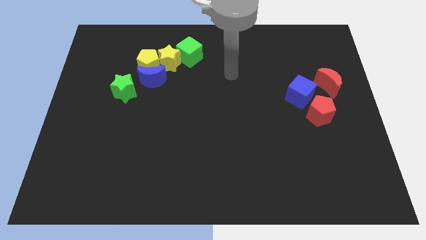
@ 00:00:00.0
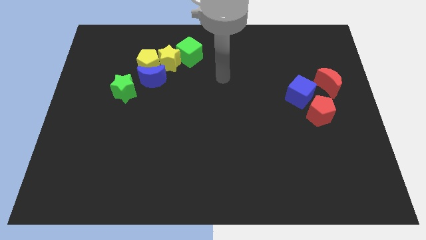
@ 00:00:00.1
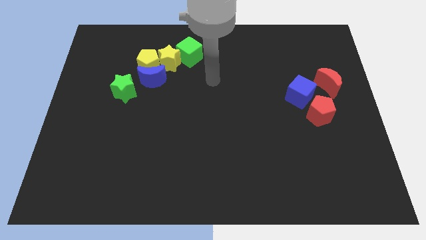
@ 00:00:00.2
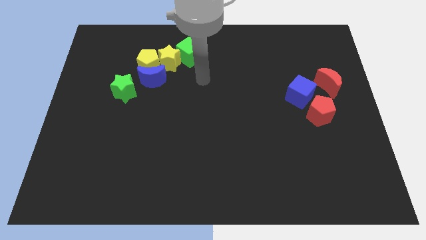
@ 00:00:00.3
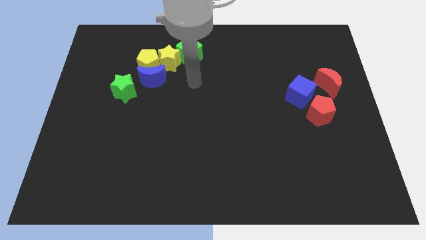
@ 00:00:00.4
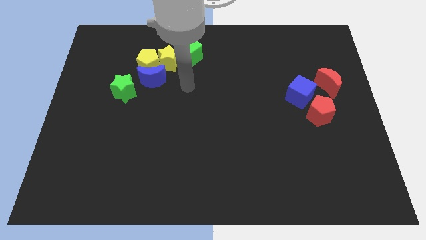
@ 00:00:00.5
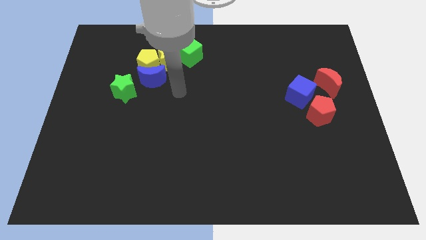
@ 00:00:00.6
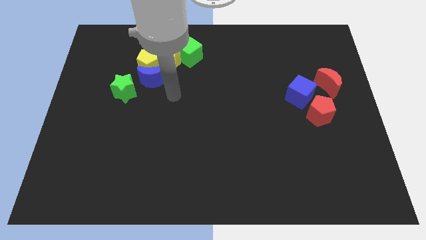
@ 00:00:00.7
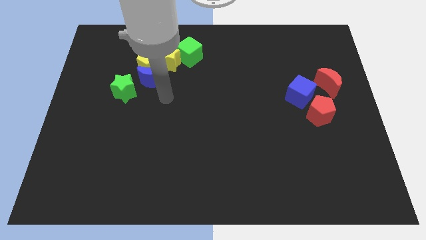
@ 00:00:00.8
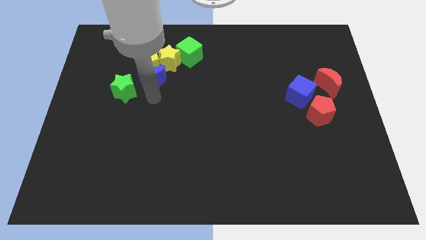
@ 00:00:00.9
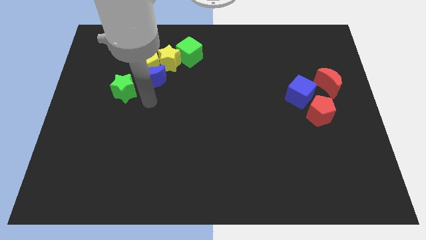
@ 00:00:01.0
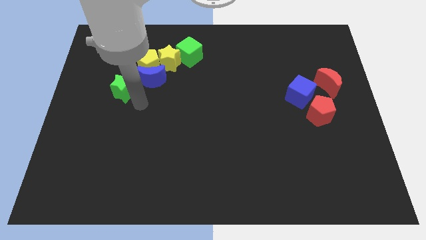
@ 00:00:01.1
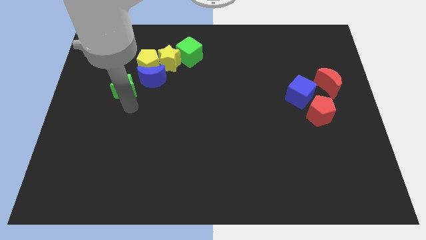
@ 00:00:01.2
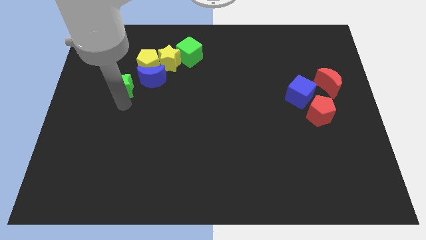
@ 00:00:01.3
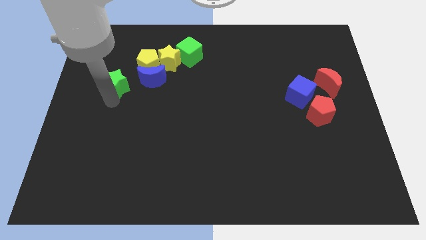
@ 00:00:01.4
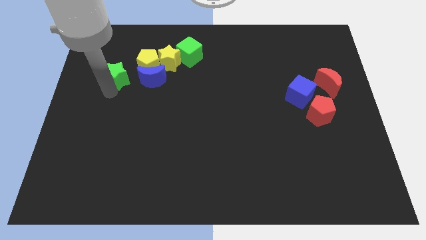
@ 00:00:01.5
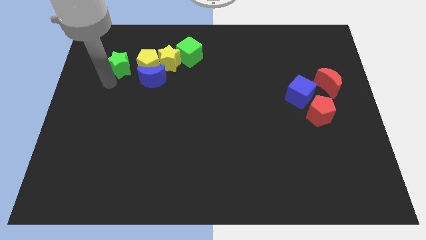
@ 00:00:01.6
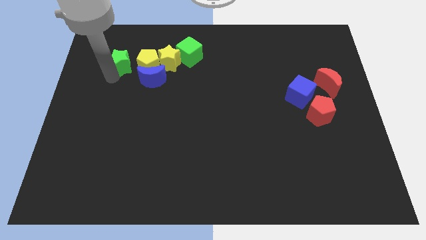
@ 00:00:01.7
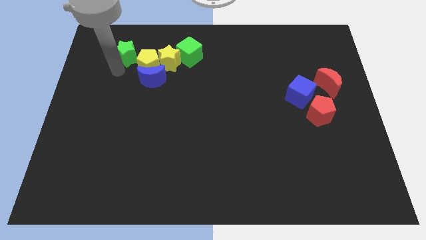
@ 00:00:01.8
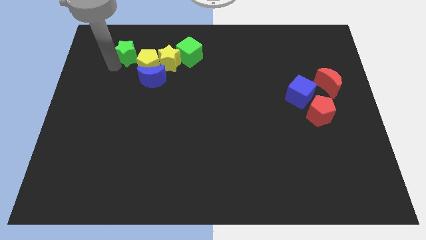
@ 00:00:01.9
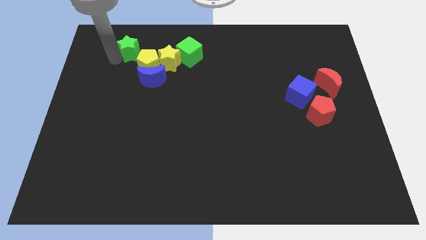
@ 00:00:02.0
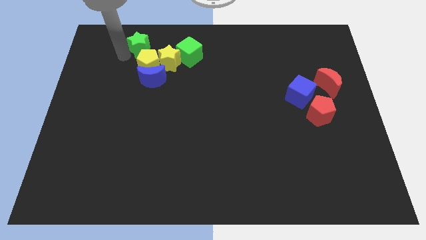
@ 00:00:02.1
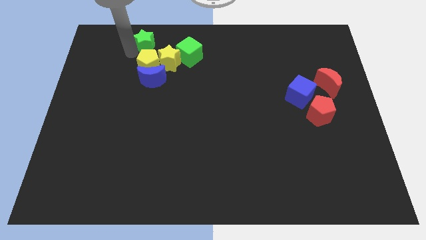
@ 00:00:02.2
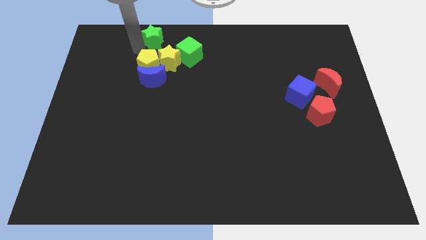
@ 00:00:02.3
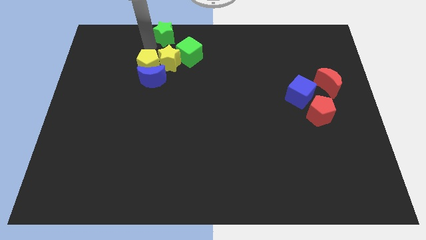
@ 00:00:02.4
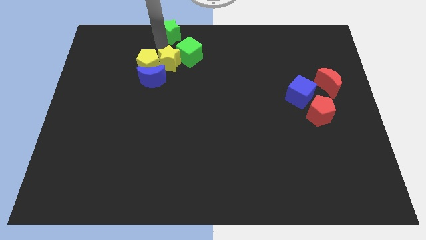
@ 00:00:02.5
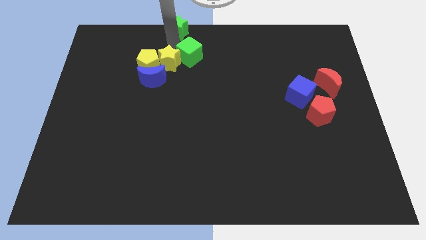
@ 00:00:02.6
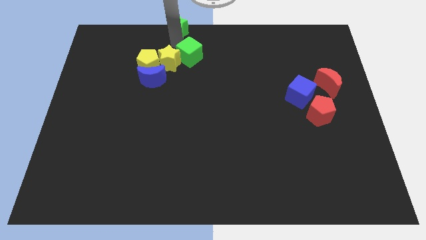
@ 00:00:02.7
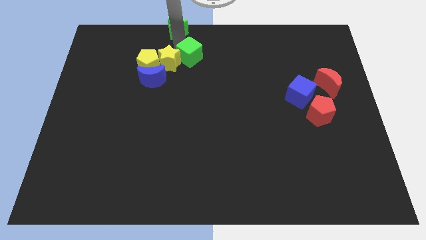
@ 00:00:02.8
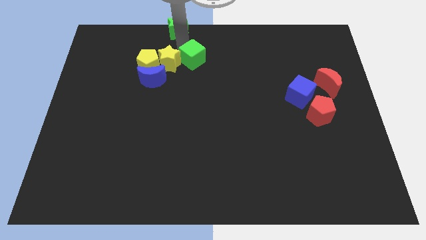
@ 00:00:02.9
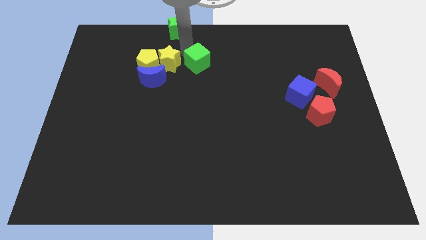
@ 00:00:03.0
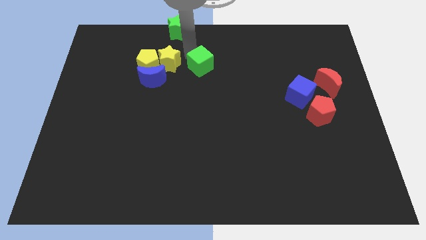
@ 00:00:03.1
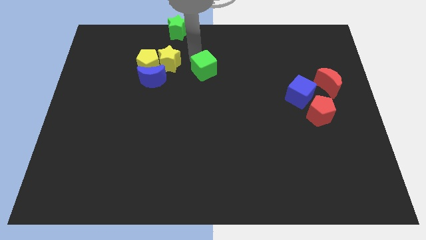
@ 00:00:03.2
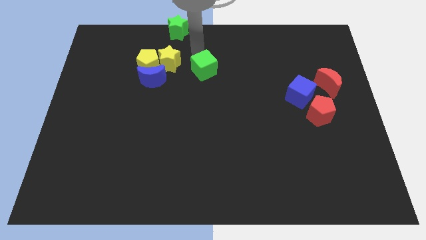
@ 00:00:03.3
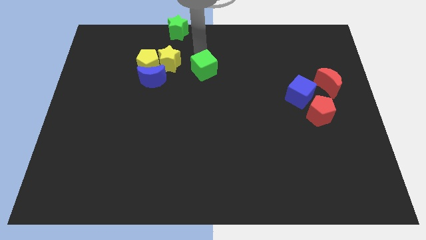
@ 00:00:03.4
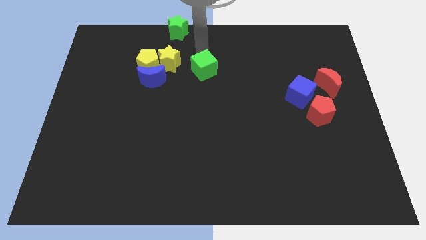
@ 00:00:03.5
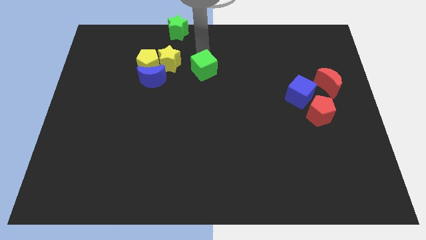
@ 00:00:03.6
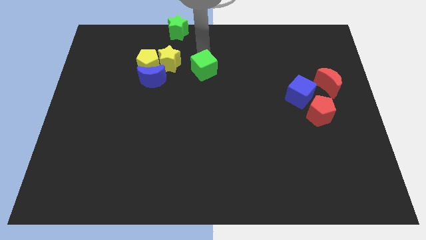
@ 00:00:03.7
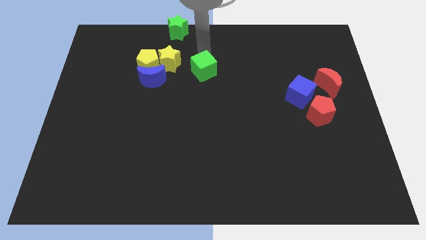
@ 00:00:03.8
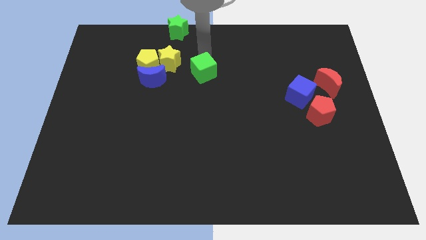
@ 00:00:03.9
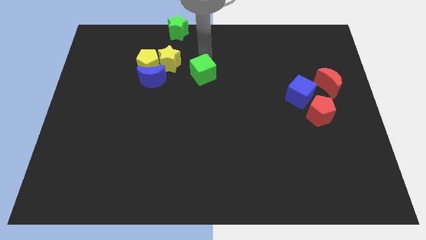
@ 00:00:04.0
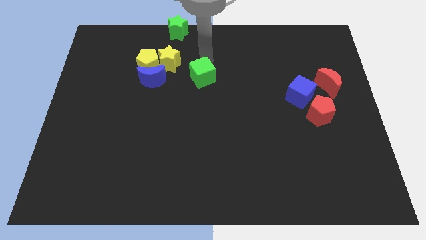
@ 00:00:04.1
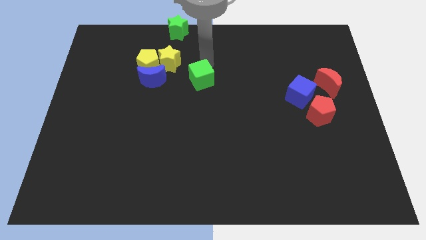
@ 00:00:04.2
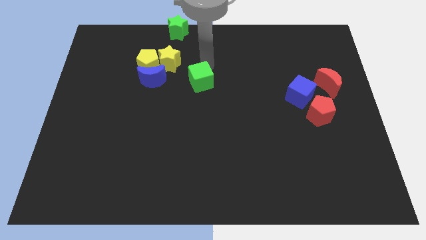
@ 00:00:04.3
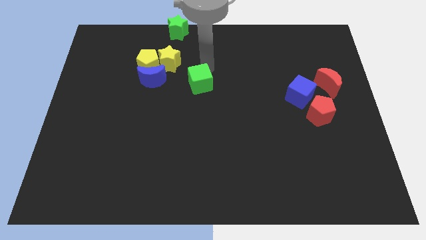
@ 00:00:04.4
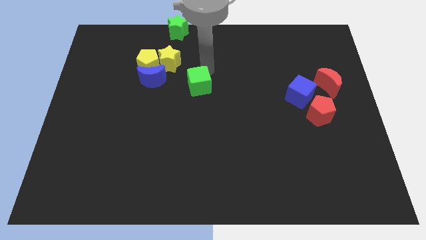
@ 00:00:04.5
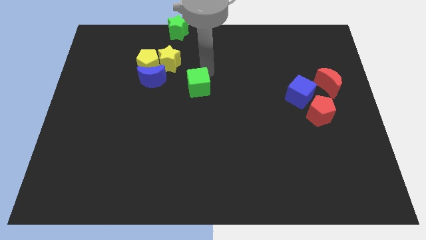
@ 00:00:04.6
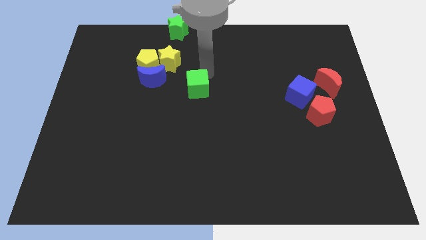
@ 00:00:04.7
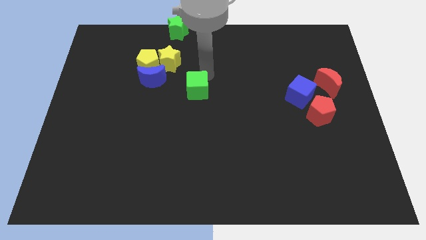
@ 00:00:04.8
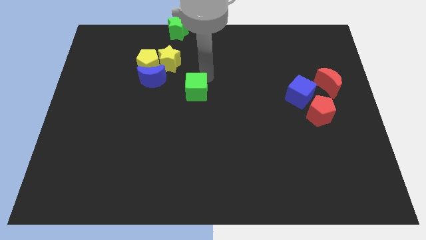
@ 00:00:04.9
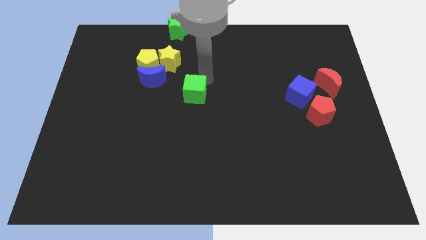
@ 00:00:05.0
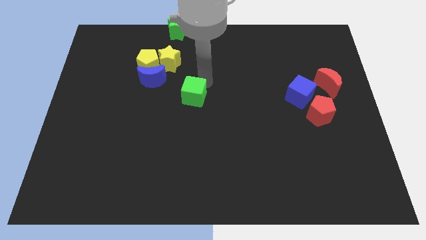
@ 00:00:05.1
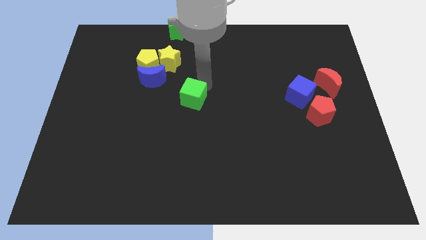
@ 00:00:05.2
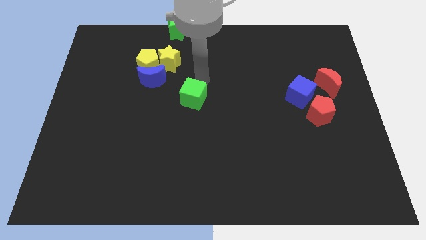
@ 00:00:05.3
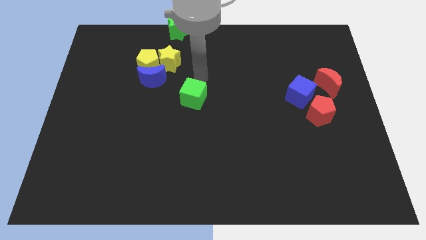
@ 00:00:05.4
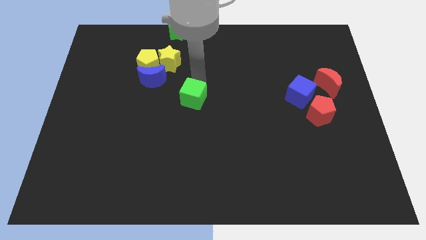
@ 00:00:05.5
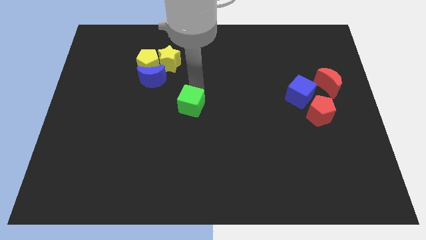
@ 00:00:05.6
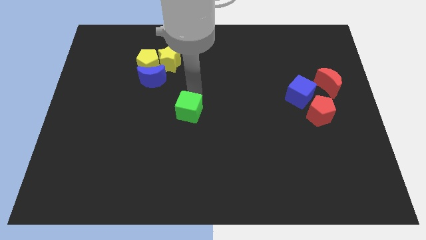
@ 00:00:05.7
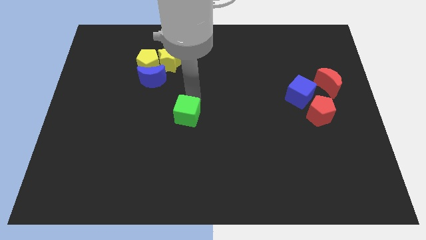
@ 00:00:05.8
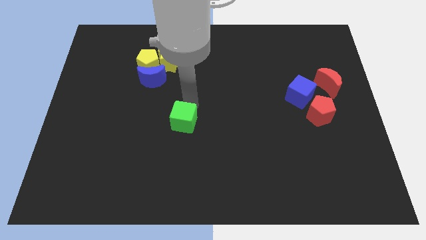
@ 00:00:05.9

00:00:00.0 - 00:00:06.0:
push the green cube downwards

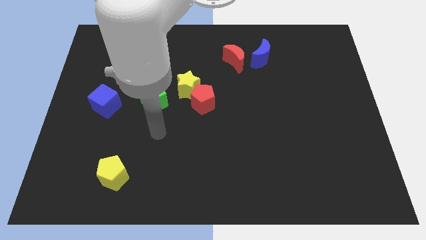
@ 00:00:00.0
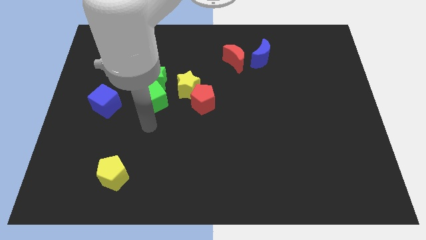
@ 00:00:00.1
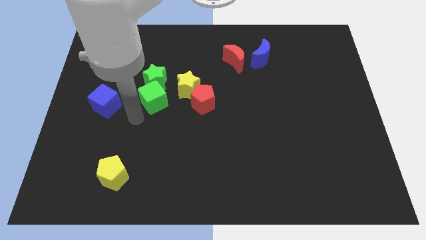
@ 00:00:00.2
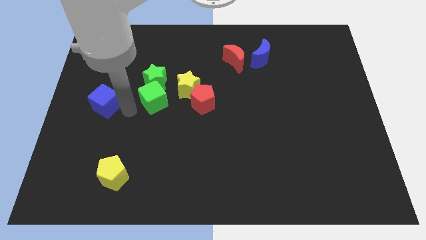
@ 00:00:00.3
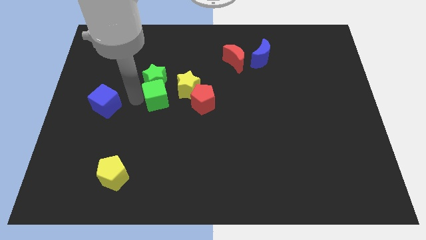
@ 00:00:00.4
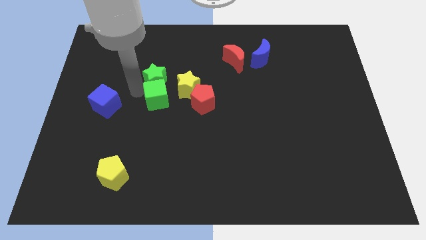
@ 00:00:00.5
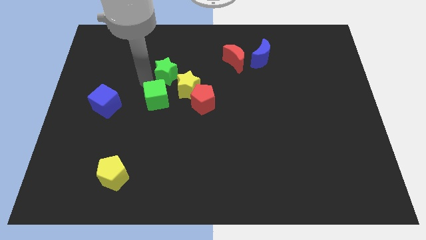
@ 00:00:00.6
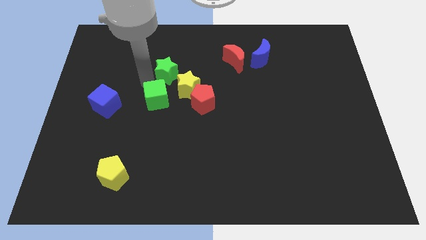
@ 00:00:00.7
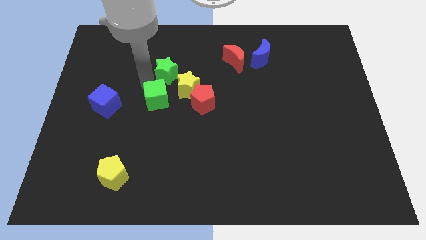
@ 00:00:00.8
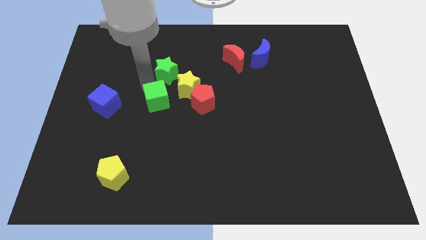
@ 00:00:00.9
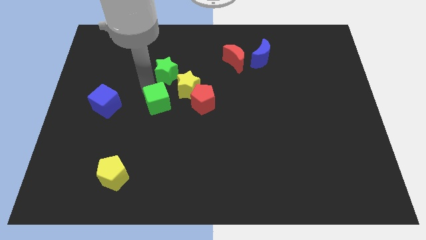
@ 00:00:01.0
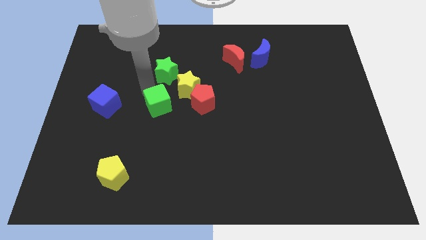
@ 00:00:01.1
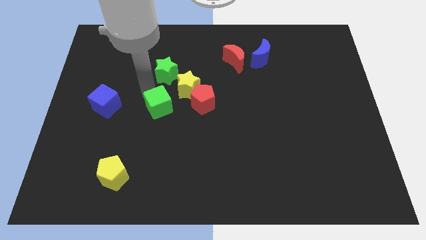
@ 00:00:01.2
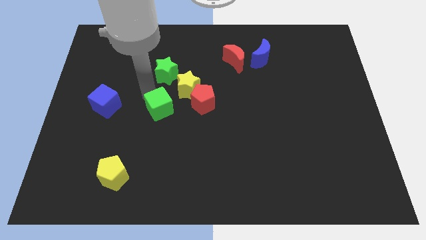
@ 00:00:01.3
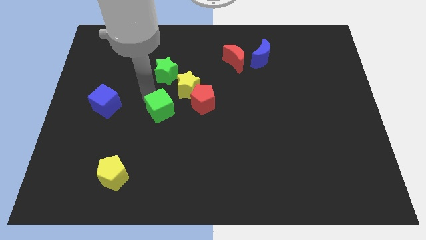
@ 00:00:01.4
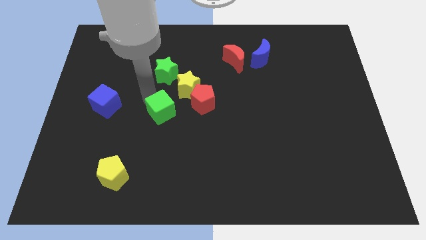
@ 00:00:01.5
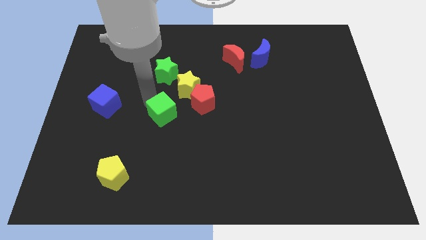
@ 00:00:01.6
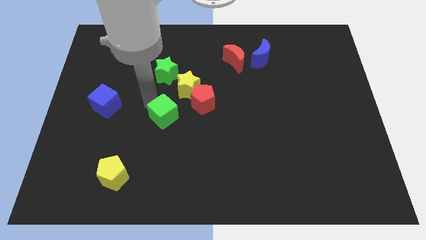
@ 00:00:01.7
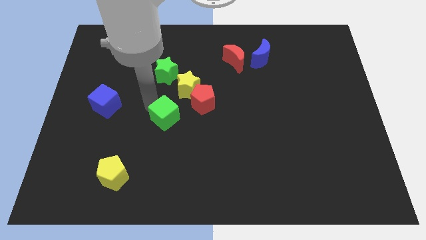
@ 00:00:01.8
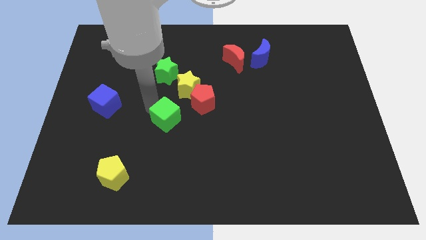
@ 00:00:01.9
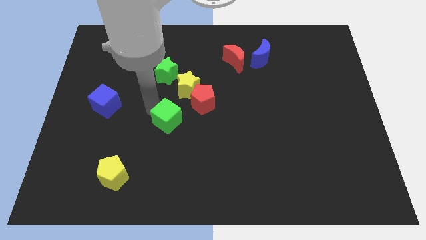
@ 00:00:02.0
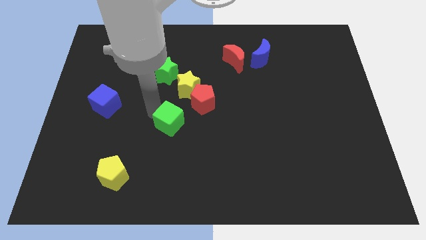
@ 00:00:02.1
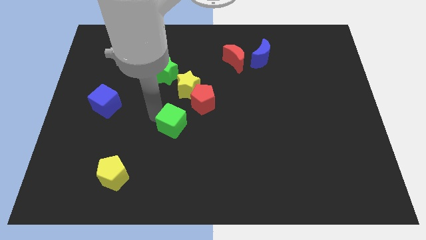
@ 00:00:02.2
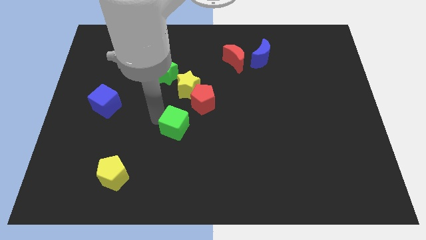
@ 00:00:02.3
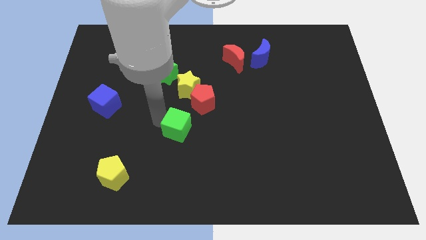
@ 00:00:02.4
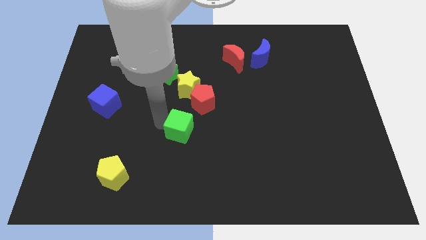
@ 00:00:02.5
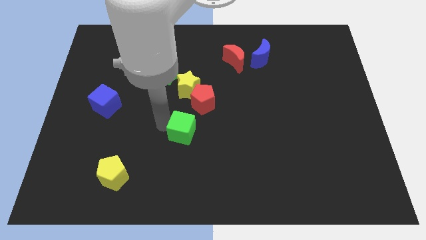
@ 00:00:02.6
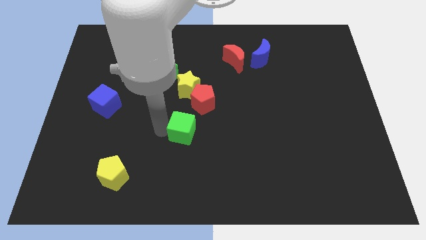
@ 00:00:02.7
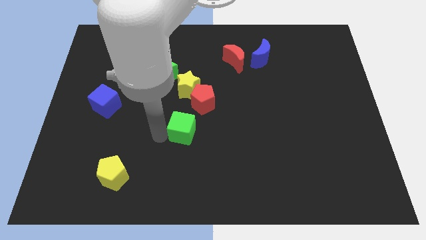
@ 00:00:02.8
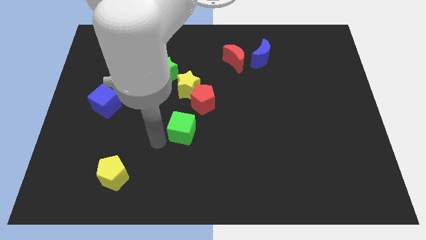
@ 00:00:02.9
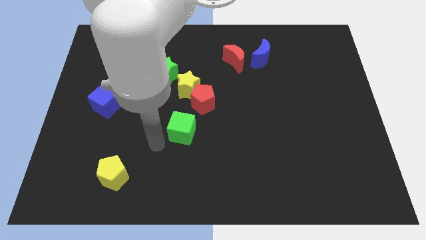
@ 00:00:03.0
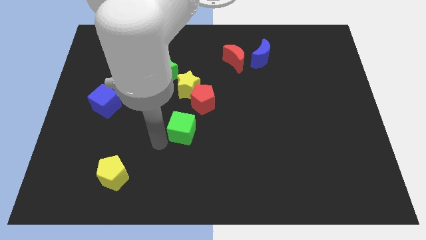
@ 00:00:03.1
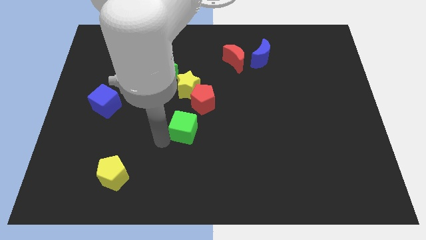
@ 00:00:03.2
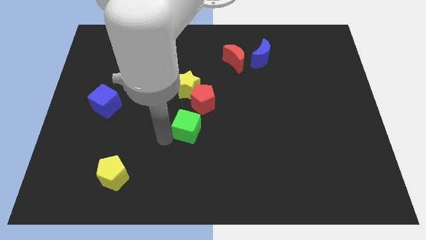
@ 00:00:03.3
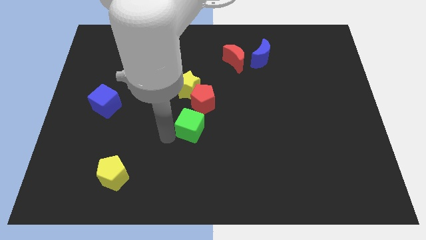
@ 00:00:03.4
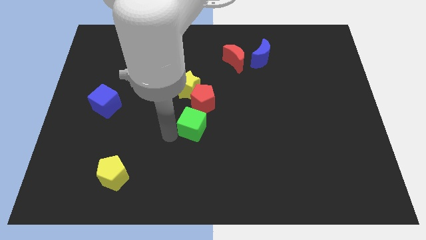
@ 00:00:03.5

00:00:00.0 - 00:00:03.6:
push the green cube a bit to the right
